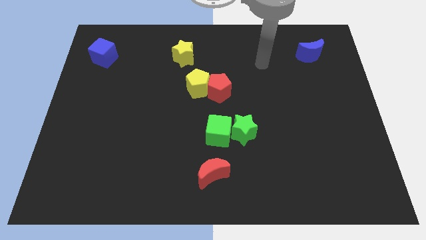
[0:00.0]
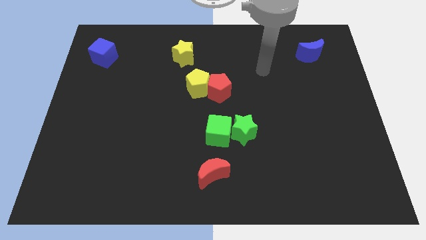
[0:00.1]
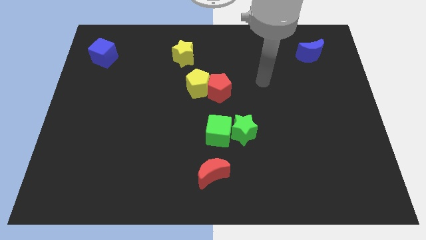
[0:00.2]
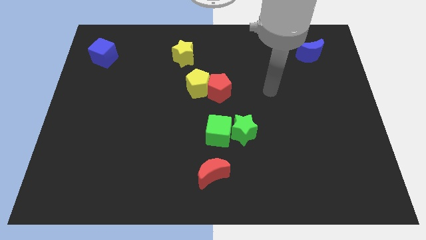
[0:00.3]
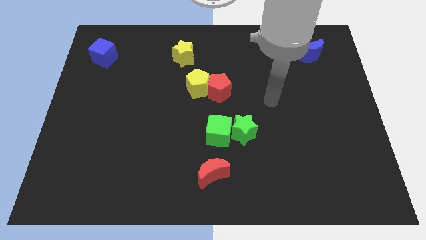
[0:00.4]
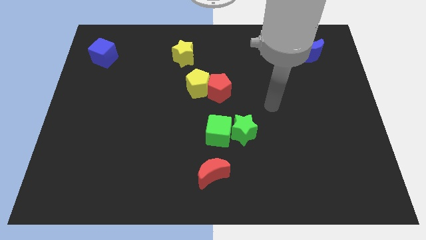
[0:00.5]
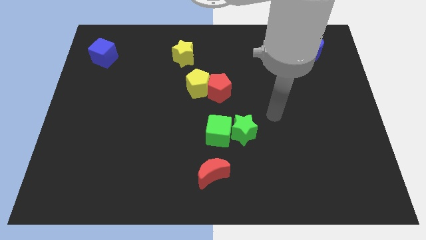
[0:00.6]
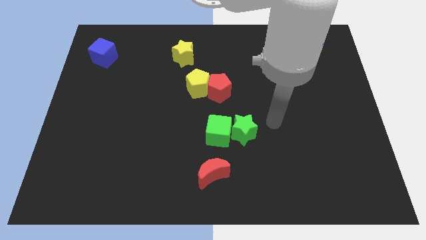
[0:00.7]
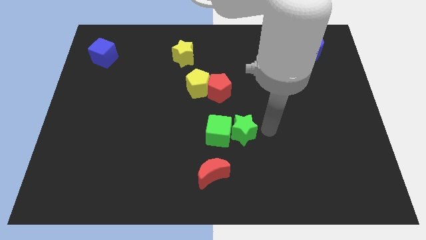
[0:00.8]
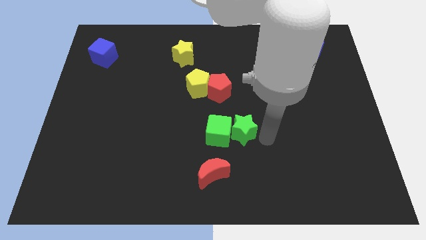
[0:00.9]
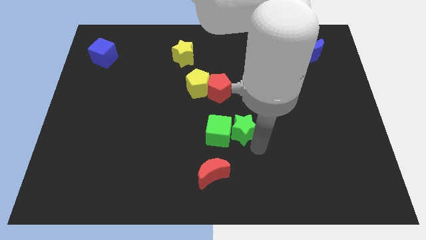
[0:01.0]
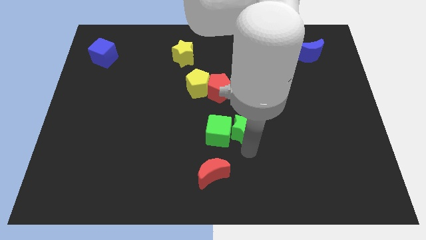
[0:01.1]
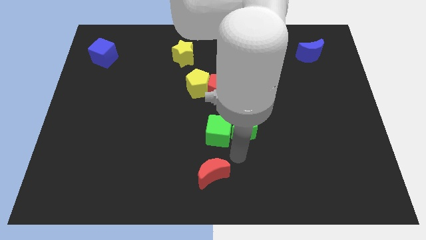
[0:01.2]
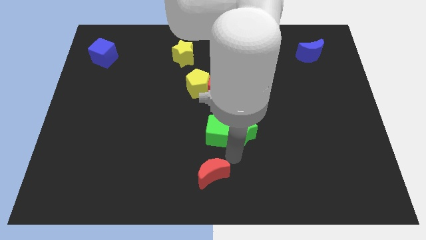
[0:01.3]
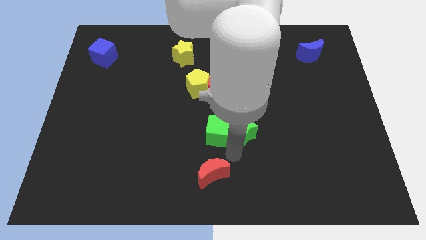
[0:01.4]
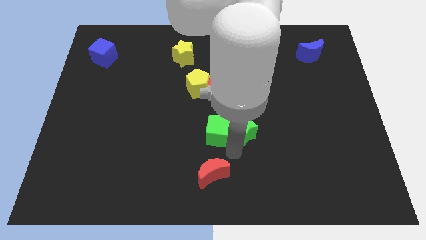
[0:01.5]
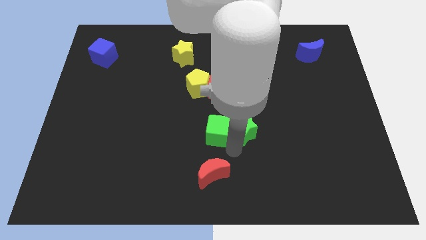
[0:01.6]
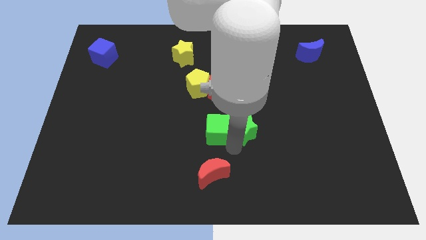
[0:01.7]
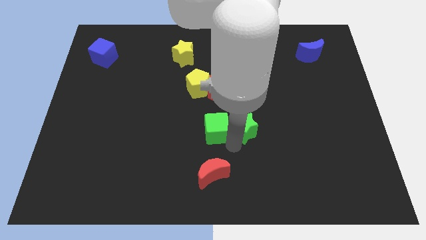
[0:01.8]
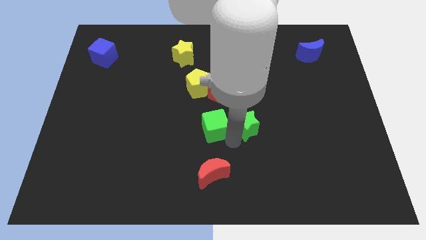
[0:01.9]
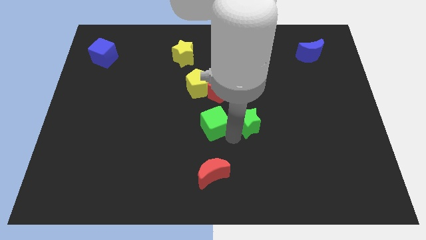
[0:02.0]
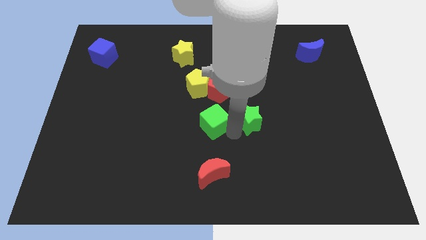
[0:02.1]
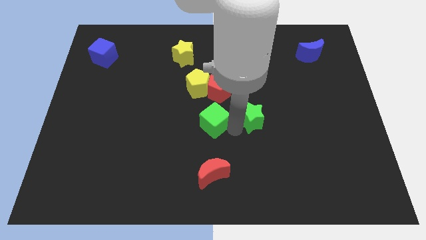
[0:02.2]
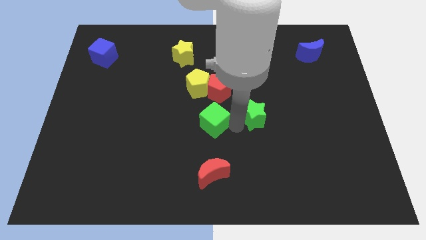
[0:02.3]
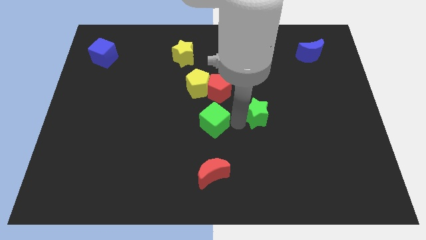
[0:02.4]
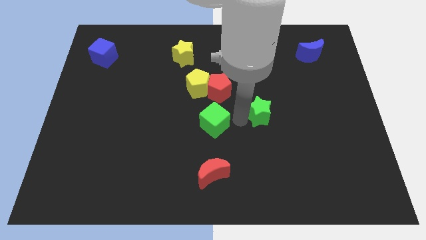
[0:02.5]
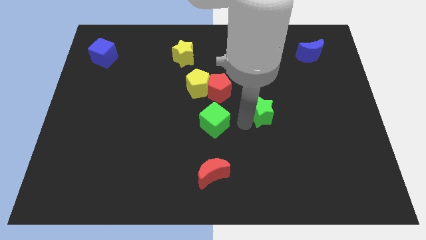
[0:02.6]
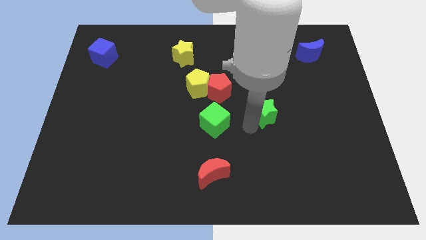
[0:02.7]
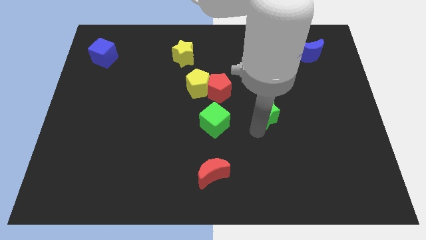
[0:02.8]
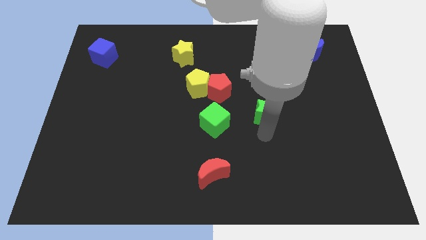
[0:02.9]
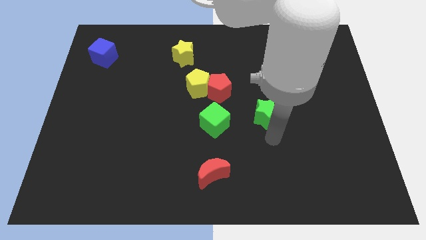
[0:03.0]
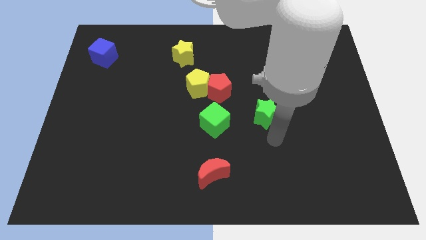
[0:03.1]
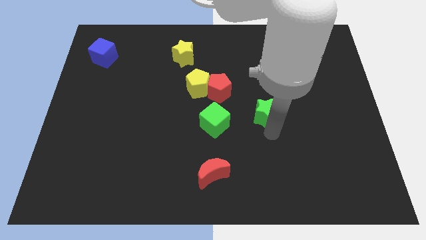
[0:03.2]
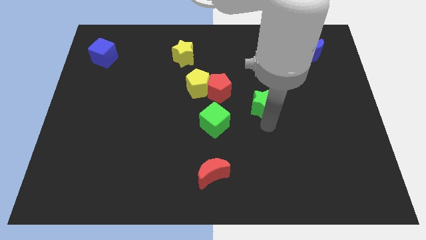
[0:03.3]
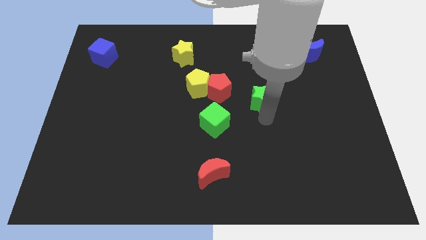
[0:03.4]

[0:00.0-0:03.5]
push the green star a little bit upwards

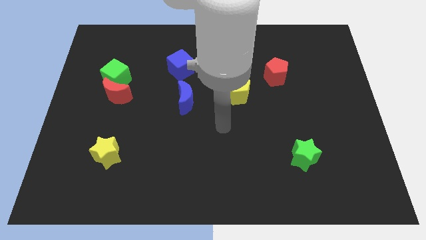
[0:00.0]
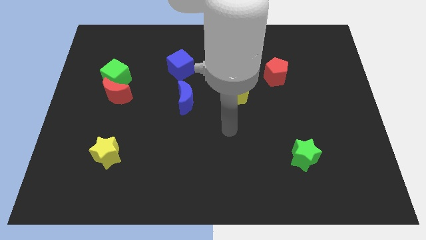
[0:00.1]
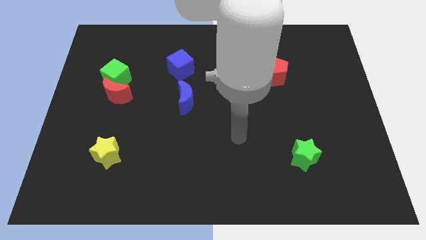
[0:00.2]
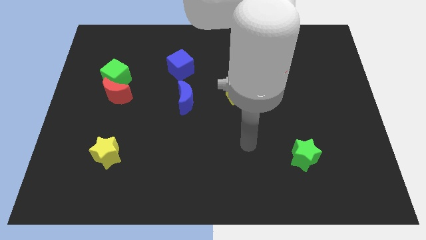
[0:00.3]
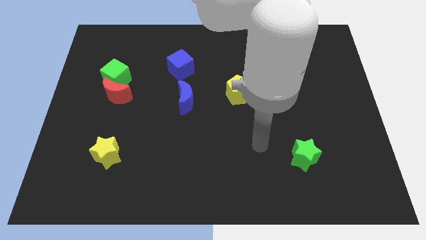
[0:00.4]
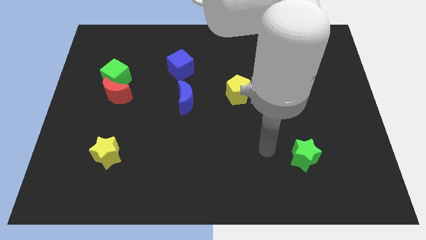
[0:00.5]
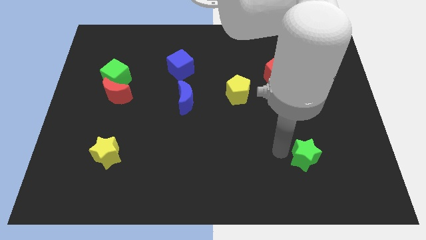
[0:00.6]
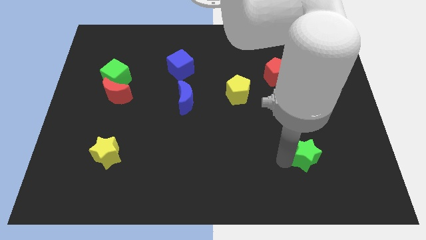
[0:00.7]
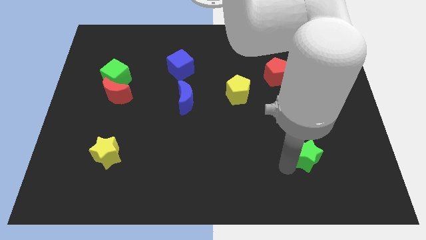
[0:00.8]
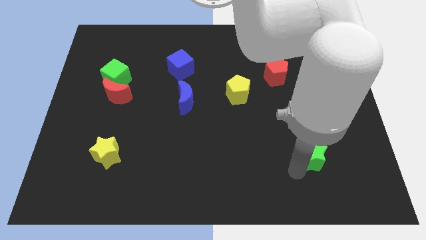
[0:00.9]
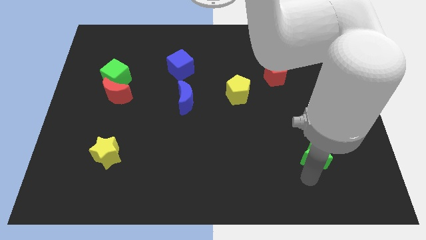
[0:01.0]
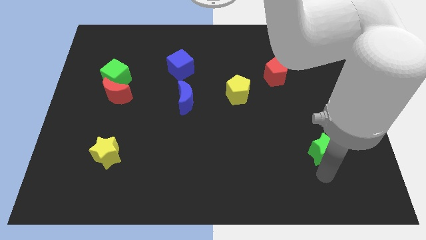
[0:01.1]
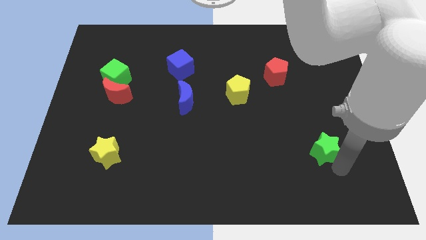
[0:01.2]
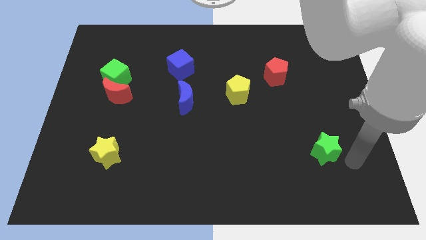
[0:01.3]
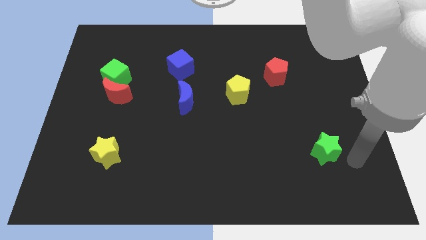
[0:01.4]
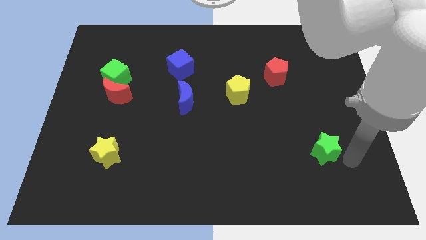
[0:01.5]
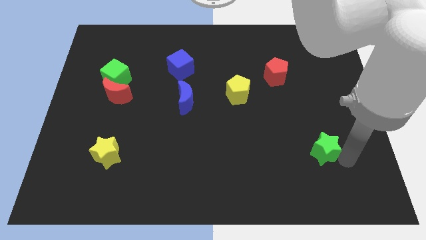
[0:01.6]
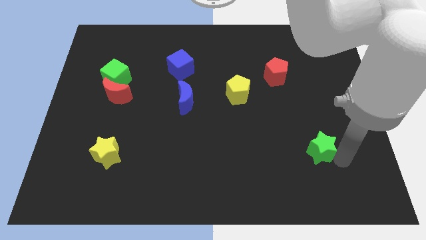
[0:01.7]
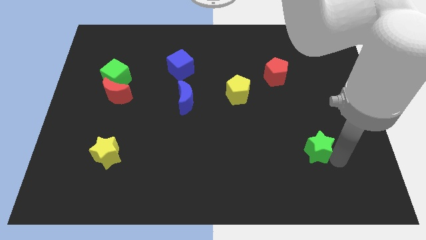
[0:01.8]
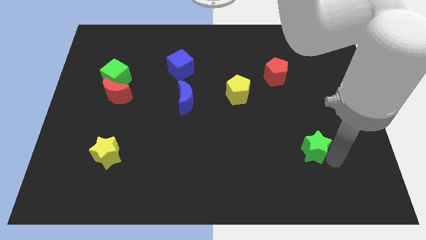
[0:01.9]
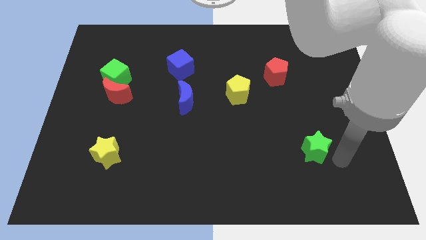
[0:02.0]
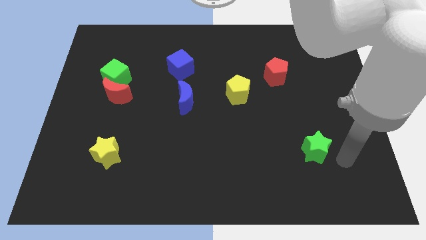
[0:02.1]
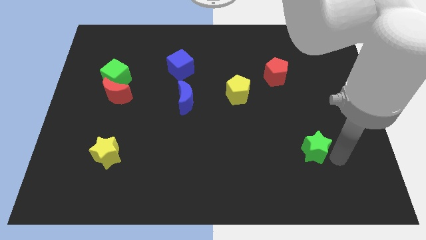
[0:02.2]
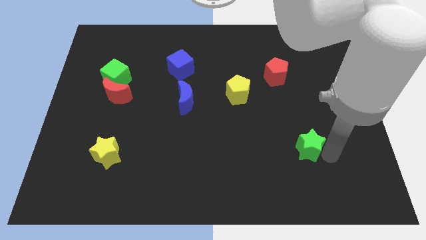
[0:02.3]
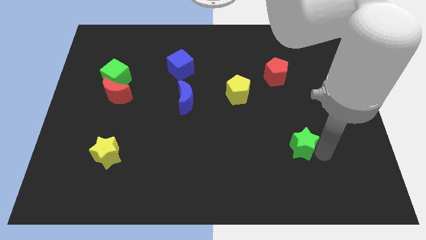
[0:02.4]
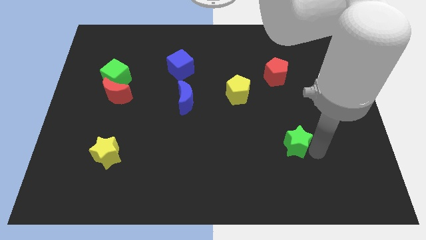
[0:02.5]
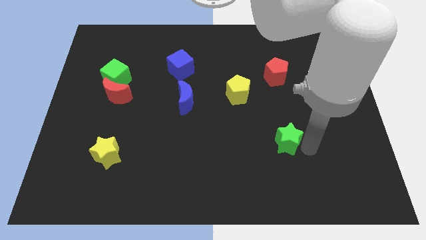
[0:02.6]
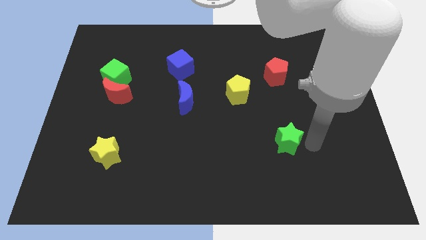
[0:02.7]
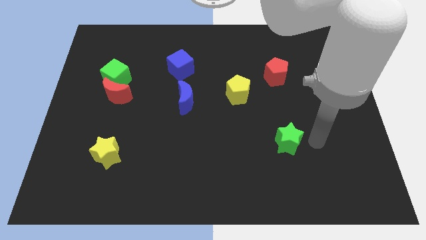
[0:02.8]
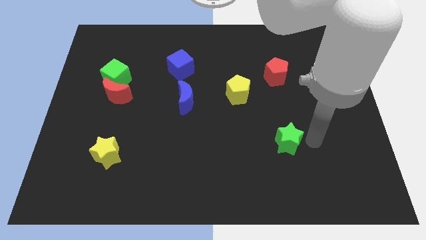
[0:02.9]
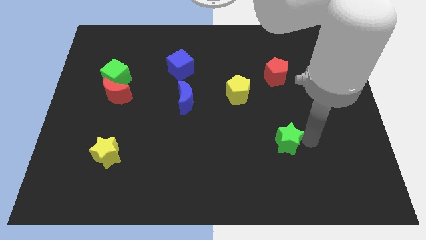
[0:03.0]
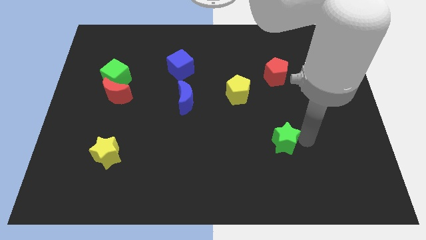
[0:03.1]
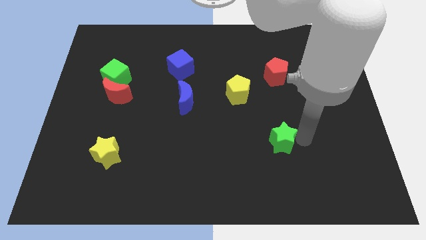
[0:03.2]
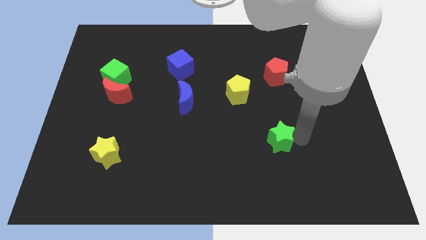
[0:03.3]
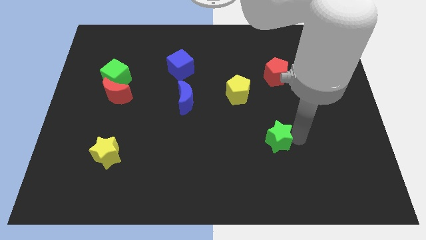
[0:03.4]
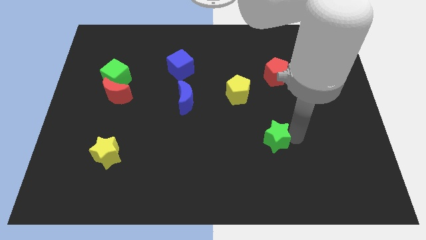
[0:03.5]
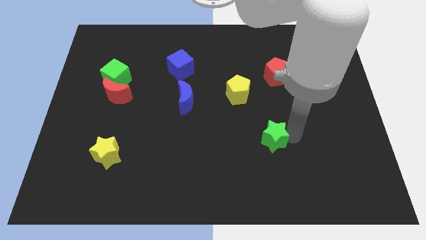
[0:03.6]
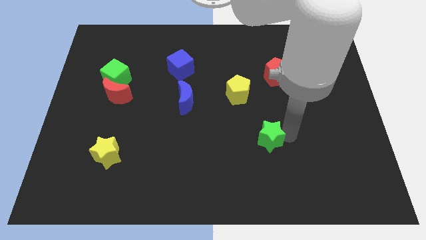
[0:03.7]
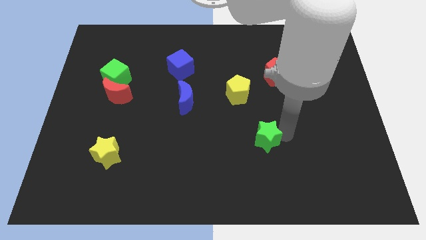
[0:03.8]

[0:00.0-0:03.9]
push the green star to the left a little

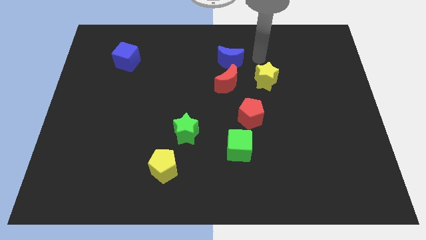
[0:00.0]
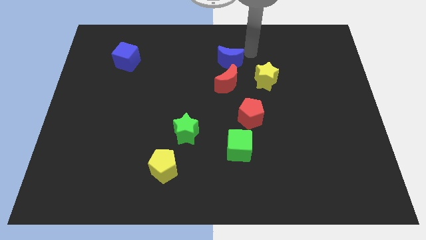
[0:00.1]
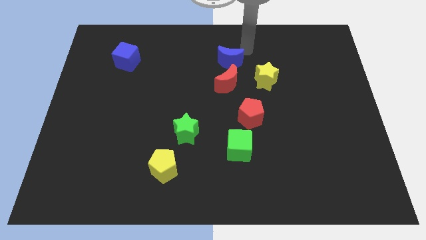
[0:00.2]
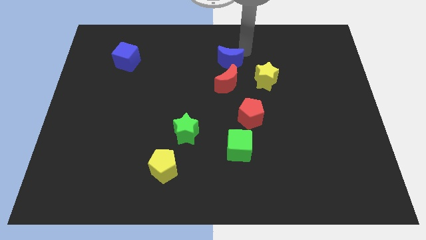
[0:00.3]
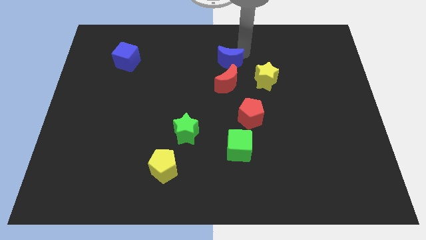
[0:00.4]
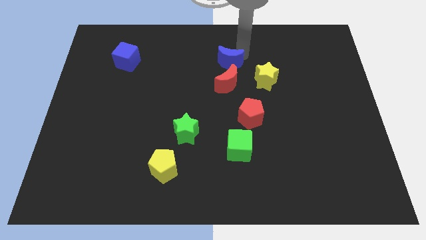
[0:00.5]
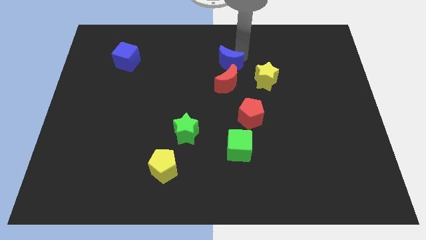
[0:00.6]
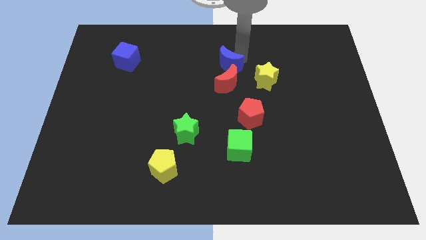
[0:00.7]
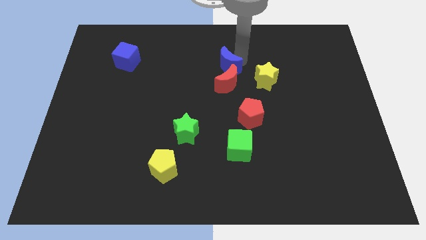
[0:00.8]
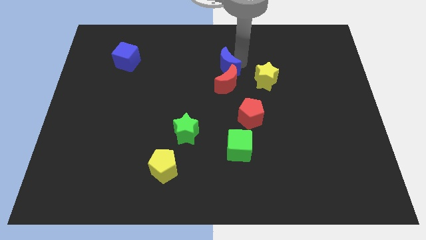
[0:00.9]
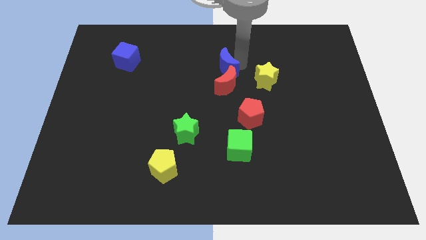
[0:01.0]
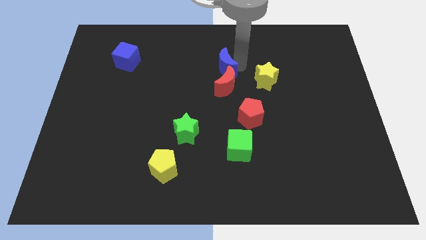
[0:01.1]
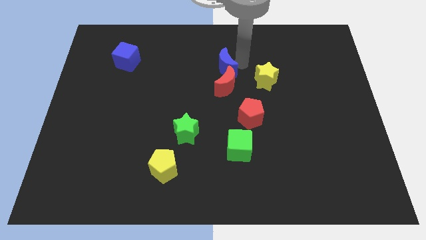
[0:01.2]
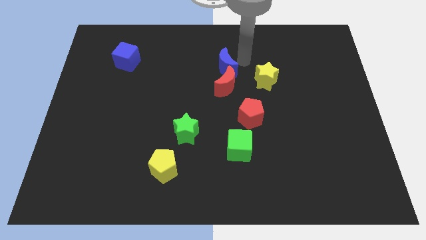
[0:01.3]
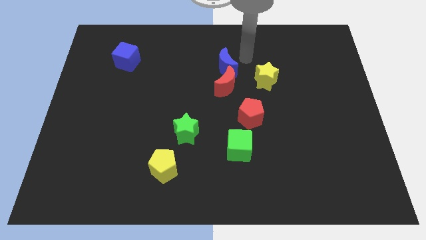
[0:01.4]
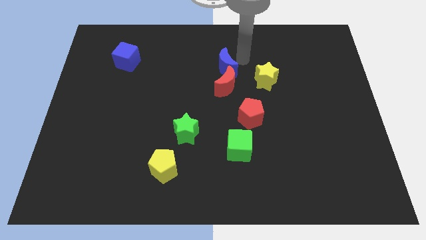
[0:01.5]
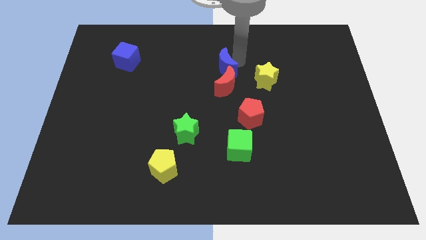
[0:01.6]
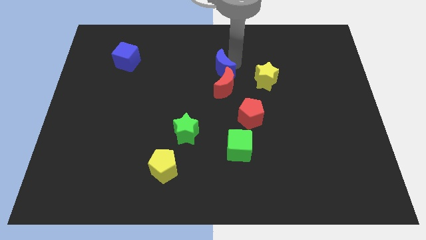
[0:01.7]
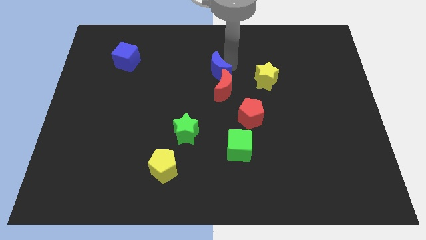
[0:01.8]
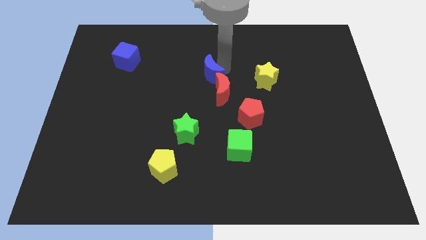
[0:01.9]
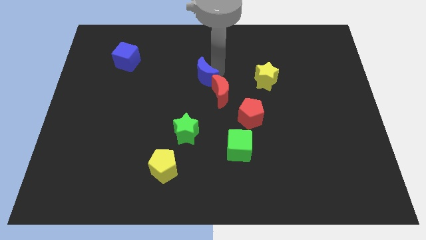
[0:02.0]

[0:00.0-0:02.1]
move the blue moon slightly downwards and then to the left
